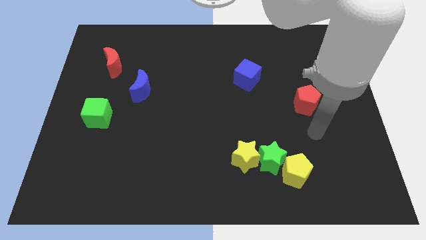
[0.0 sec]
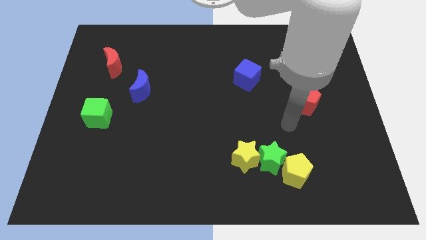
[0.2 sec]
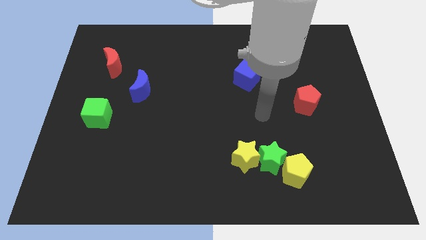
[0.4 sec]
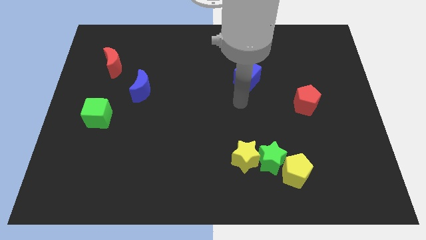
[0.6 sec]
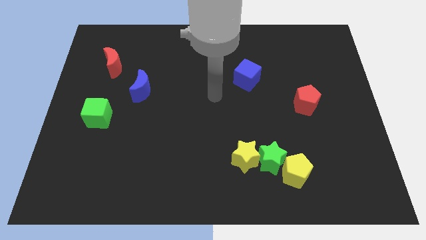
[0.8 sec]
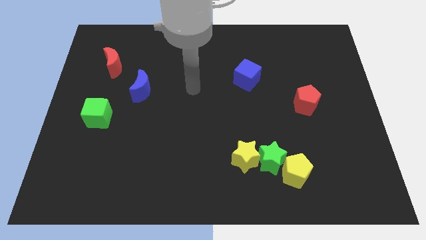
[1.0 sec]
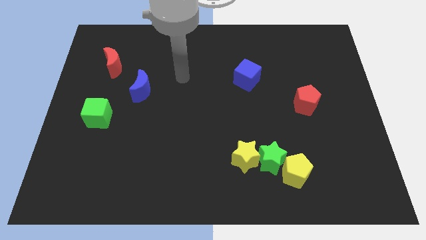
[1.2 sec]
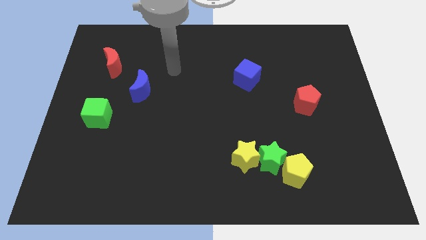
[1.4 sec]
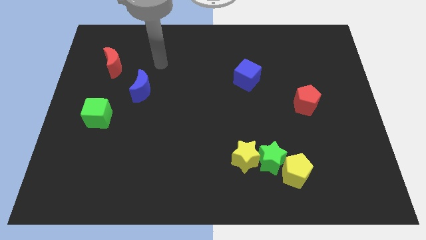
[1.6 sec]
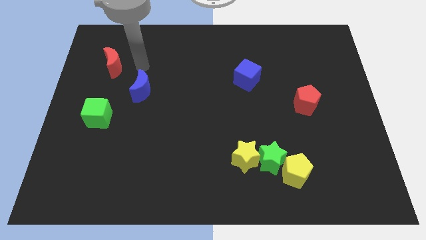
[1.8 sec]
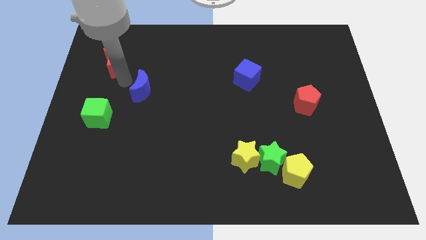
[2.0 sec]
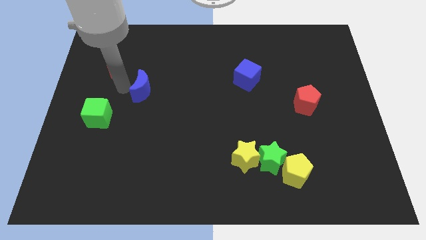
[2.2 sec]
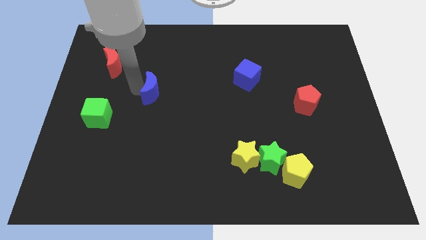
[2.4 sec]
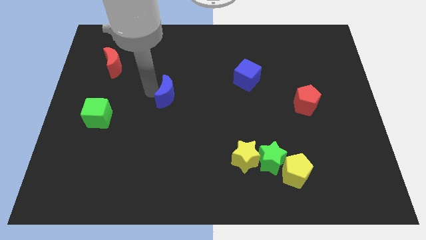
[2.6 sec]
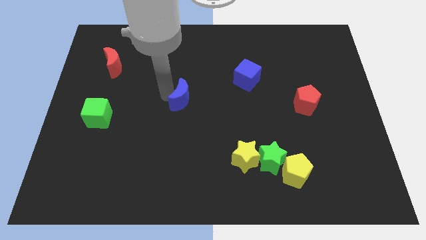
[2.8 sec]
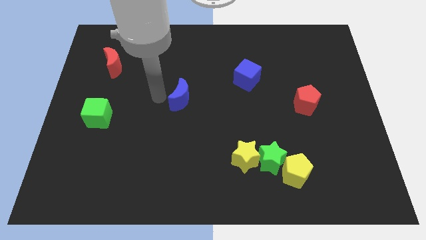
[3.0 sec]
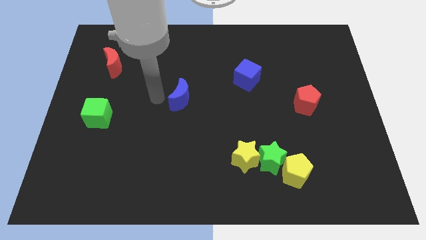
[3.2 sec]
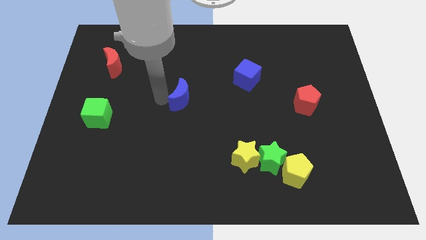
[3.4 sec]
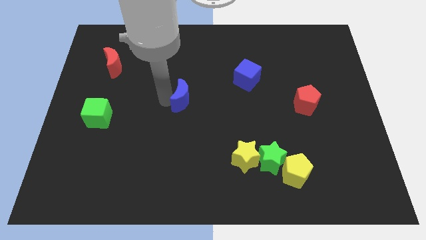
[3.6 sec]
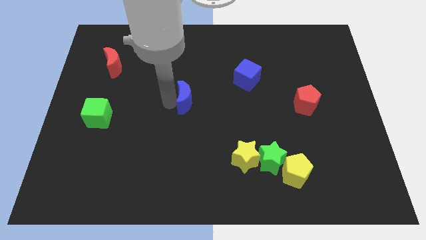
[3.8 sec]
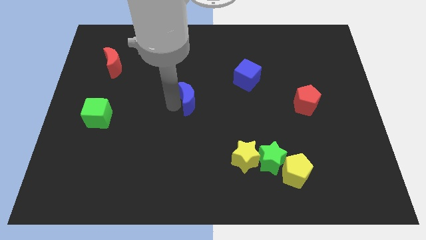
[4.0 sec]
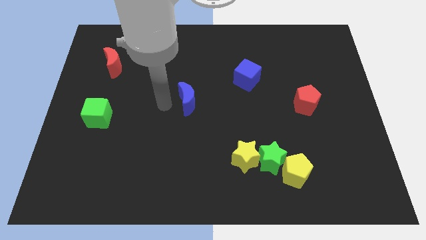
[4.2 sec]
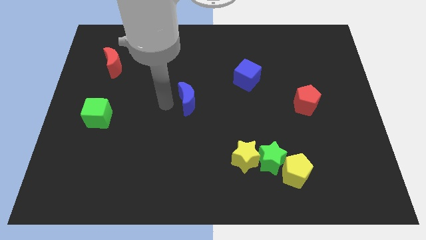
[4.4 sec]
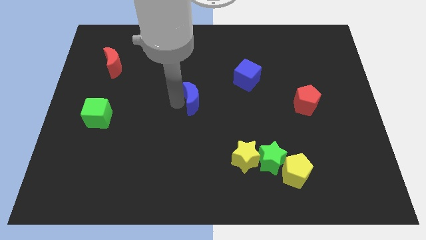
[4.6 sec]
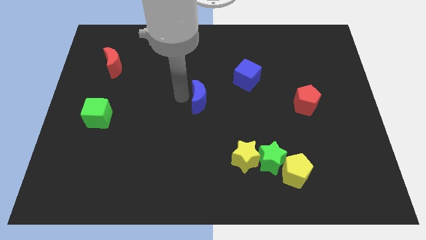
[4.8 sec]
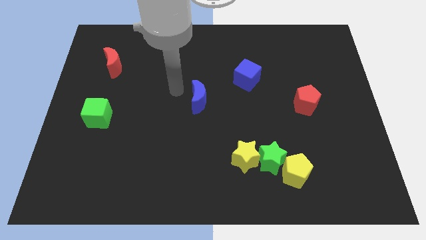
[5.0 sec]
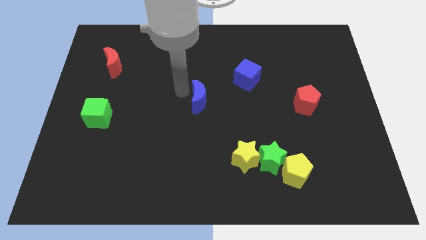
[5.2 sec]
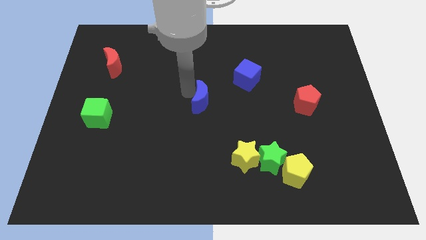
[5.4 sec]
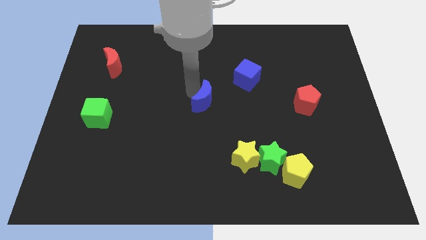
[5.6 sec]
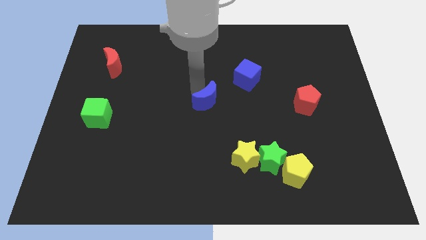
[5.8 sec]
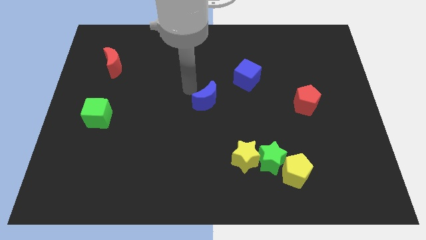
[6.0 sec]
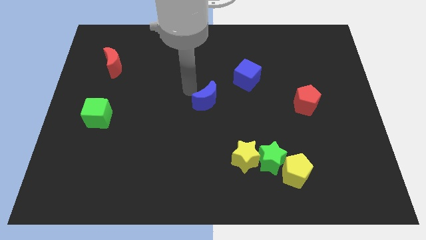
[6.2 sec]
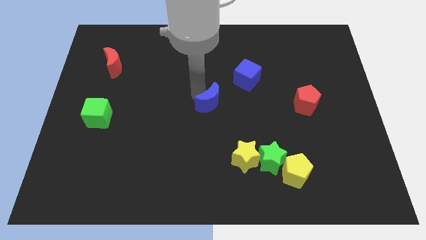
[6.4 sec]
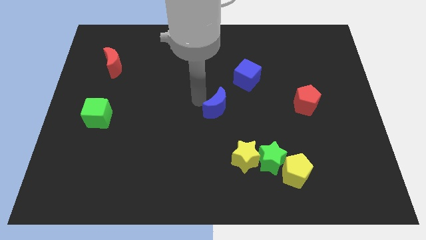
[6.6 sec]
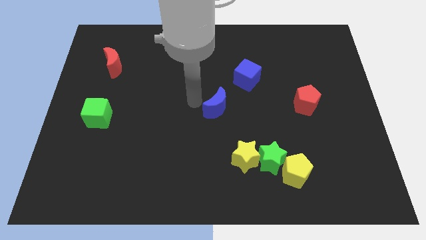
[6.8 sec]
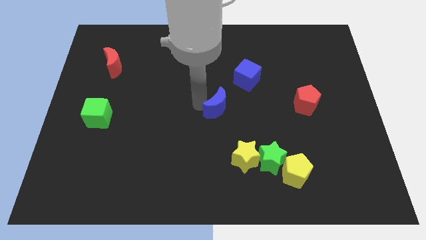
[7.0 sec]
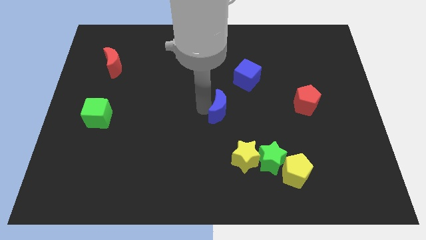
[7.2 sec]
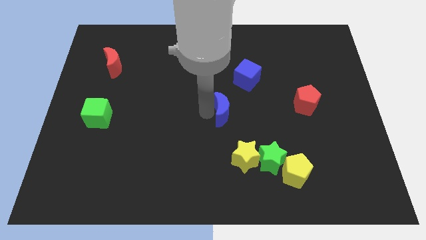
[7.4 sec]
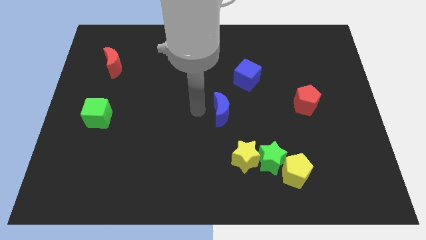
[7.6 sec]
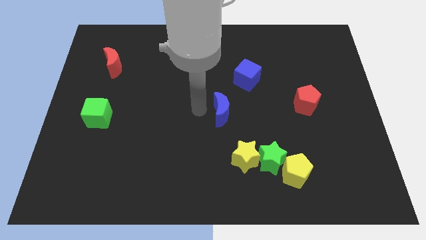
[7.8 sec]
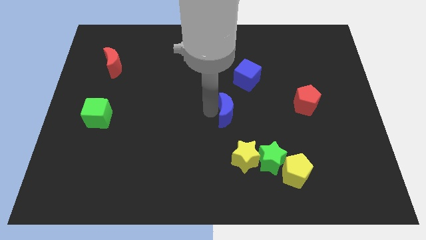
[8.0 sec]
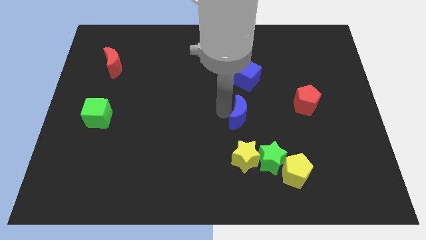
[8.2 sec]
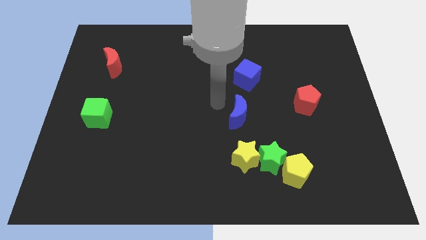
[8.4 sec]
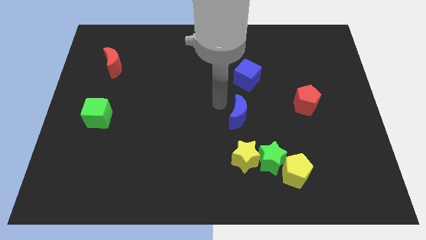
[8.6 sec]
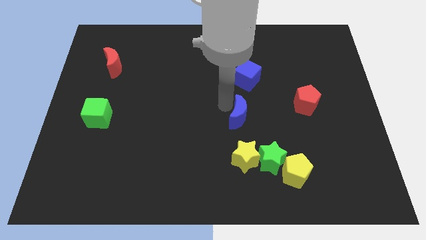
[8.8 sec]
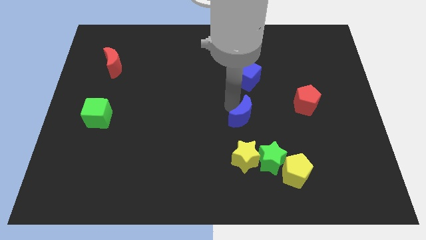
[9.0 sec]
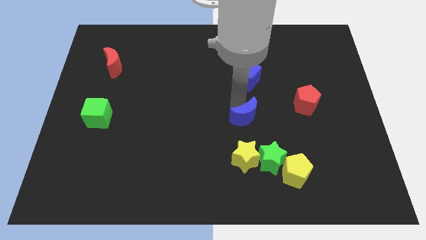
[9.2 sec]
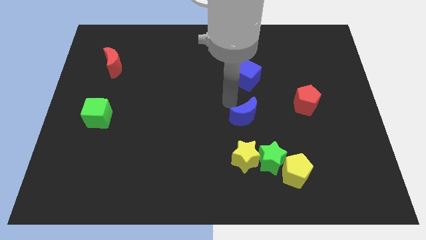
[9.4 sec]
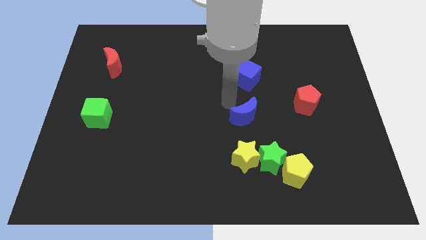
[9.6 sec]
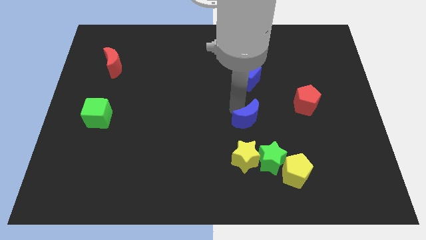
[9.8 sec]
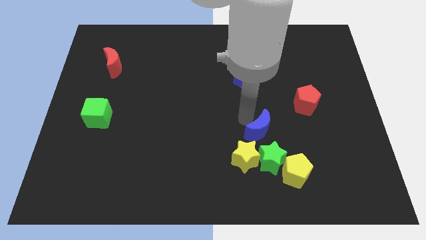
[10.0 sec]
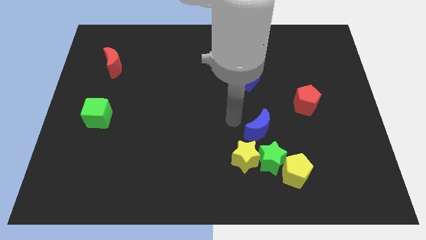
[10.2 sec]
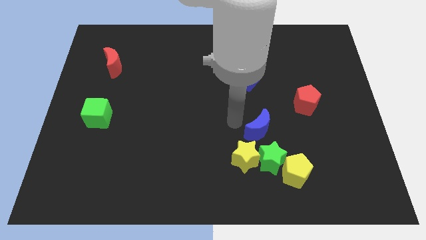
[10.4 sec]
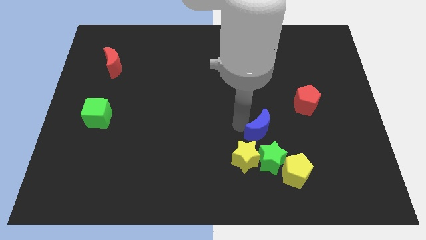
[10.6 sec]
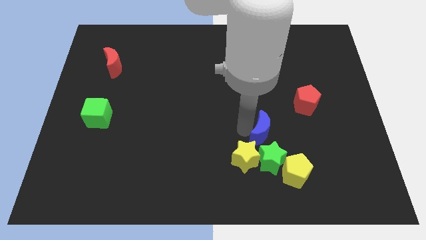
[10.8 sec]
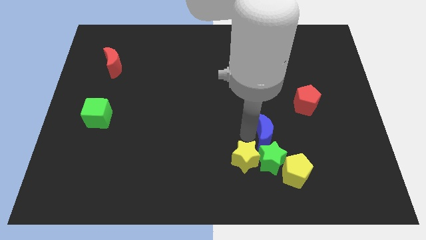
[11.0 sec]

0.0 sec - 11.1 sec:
move the blue moon to the top right side of the green star

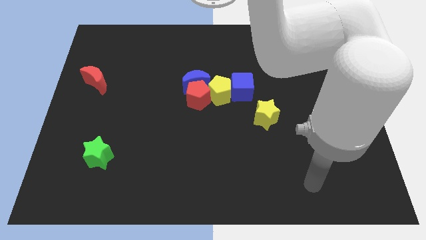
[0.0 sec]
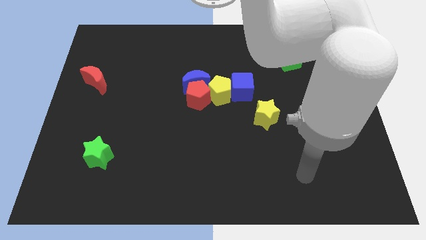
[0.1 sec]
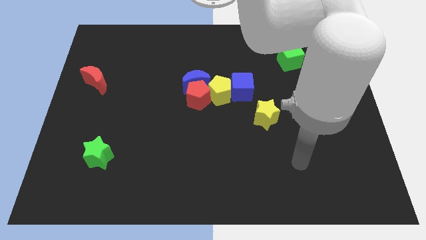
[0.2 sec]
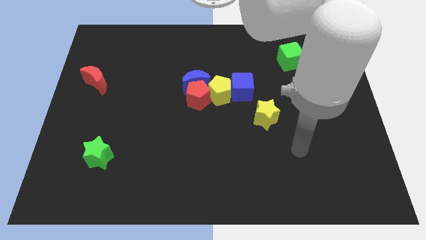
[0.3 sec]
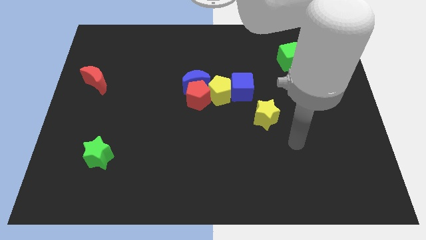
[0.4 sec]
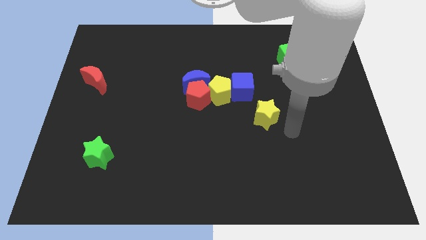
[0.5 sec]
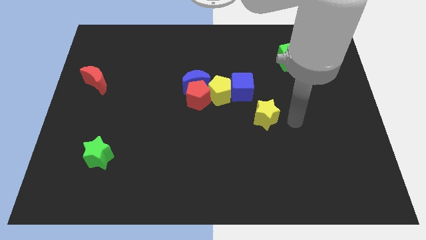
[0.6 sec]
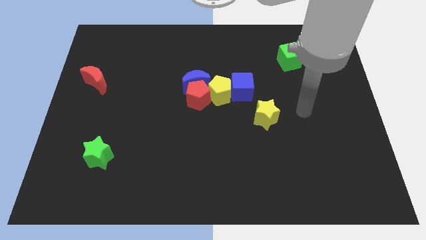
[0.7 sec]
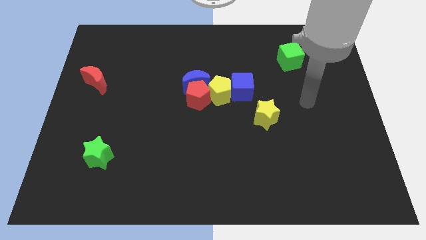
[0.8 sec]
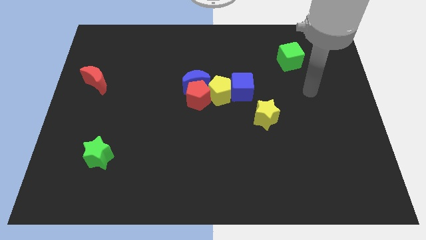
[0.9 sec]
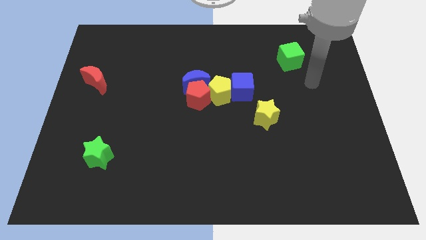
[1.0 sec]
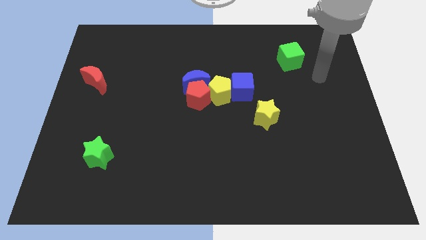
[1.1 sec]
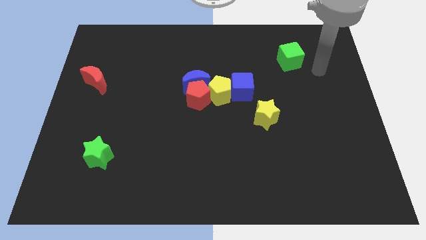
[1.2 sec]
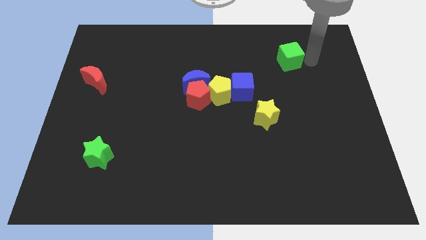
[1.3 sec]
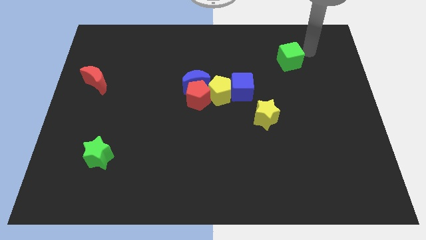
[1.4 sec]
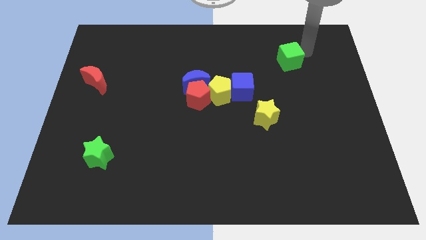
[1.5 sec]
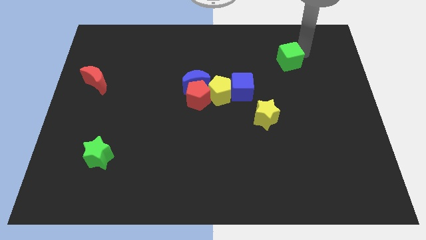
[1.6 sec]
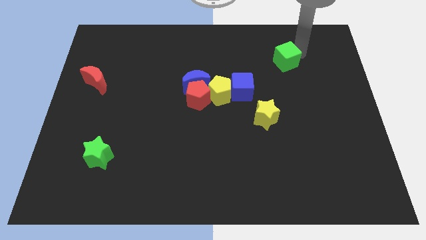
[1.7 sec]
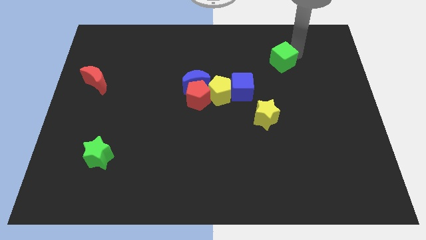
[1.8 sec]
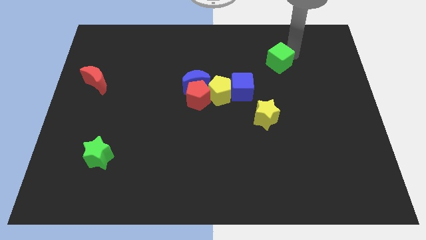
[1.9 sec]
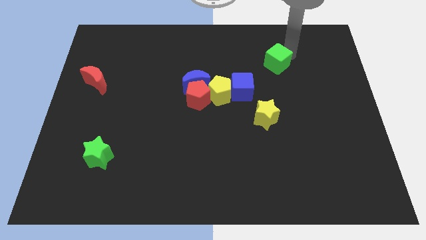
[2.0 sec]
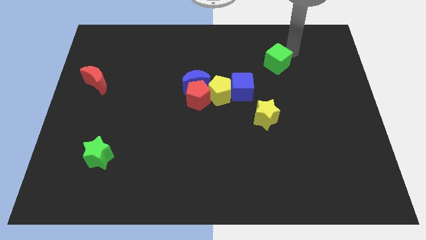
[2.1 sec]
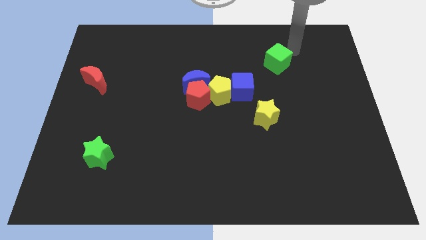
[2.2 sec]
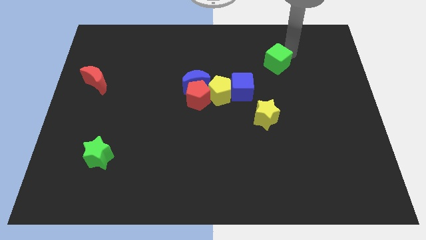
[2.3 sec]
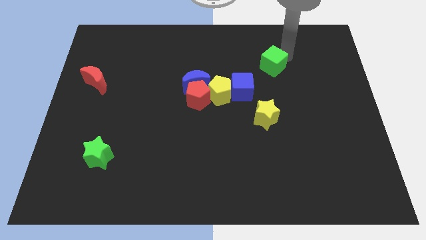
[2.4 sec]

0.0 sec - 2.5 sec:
move the green cube to the top right side of the blue cube
